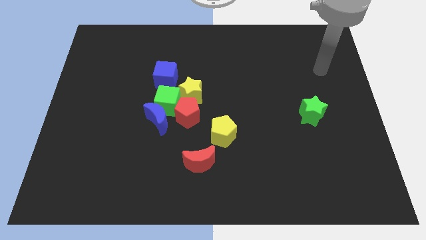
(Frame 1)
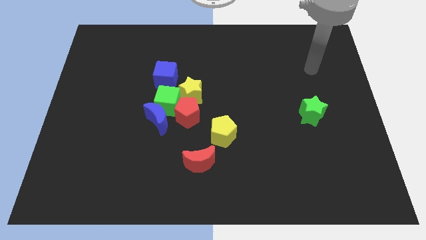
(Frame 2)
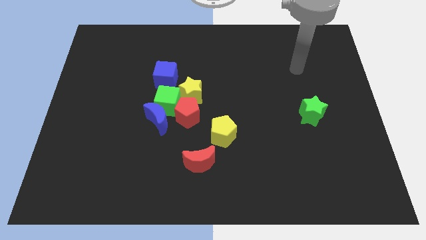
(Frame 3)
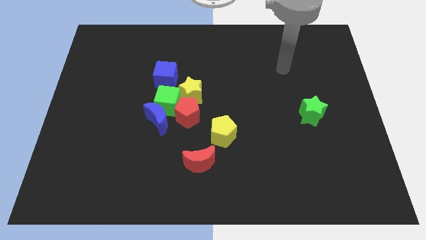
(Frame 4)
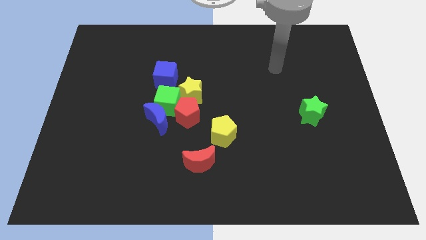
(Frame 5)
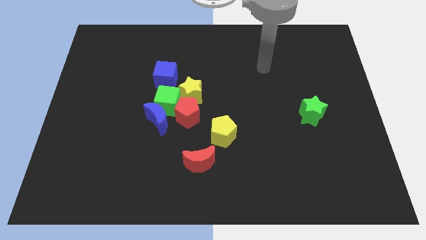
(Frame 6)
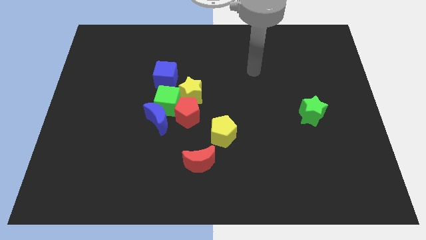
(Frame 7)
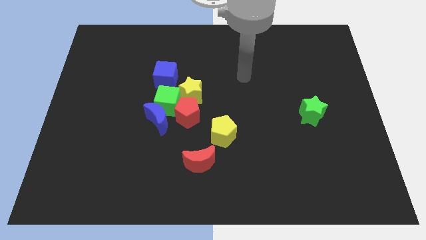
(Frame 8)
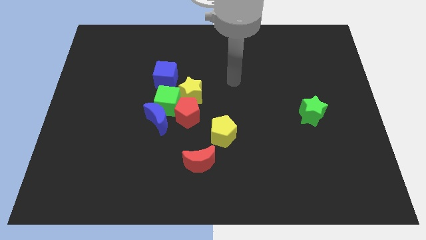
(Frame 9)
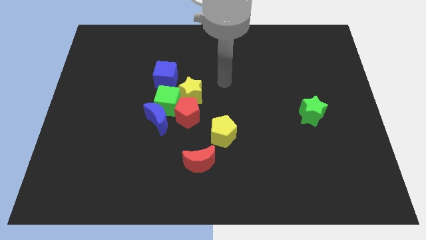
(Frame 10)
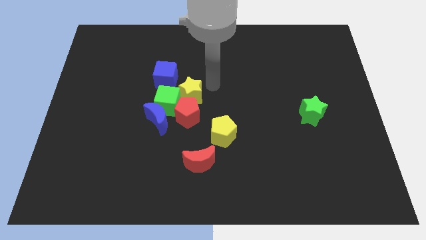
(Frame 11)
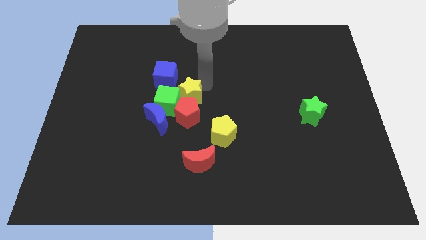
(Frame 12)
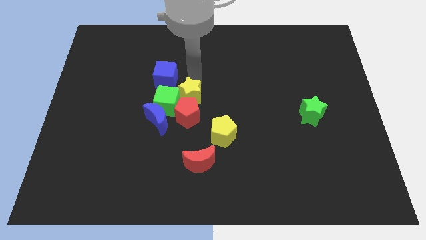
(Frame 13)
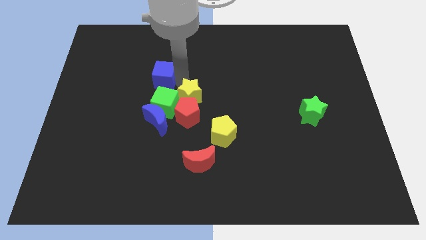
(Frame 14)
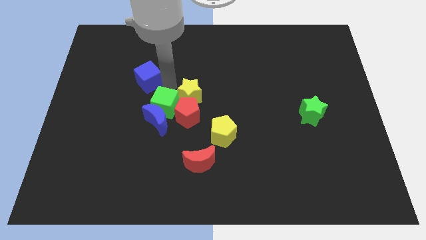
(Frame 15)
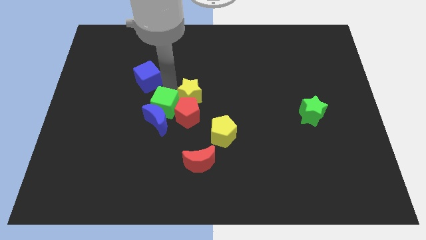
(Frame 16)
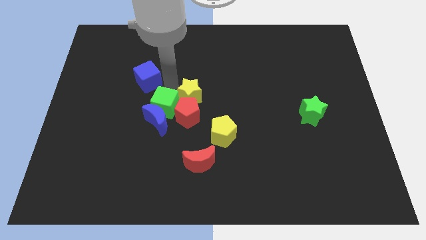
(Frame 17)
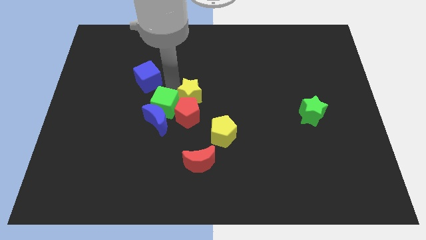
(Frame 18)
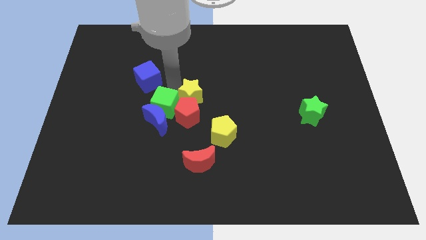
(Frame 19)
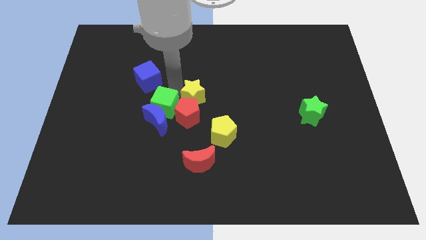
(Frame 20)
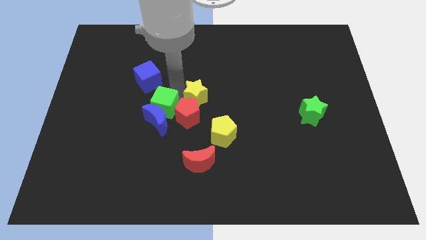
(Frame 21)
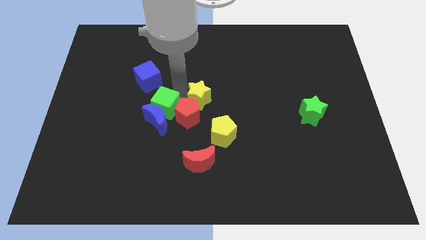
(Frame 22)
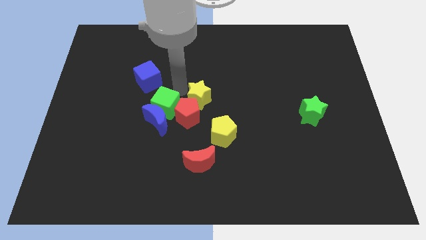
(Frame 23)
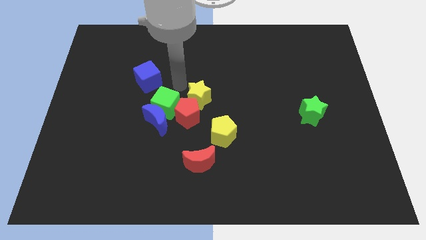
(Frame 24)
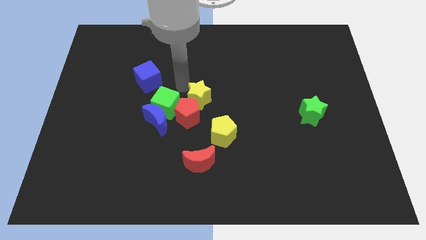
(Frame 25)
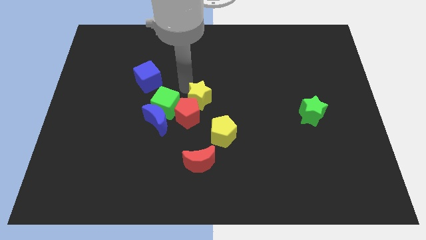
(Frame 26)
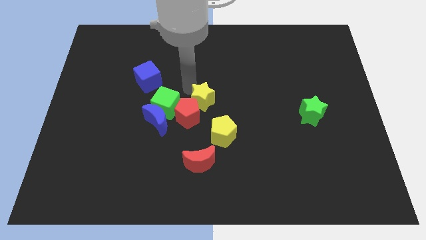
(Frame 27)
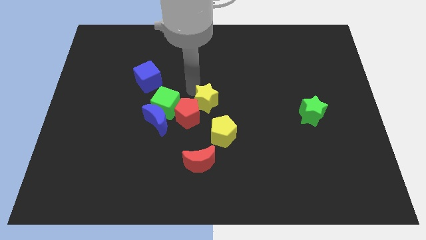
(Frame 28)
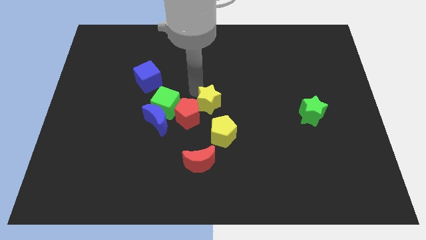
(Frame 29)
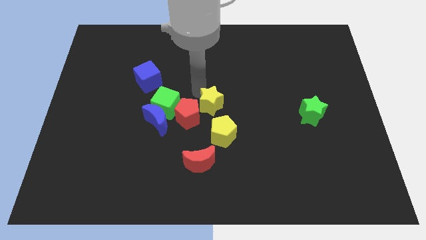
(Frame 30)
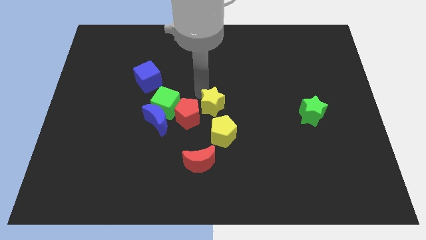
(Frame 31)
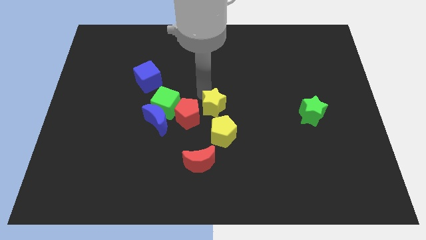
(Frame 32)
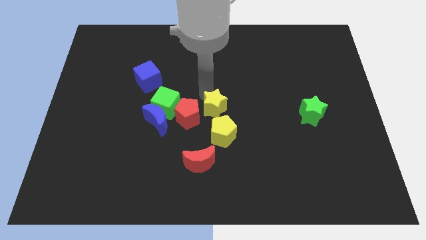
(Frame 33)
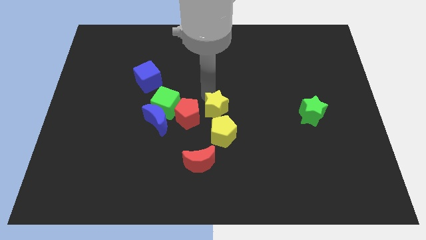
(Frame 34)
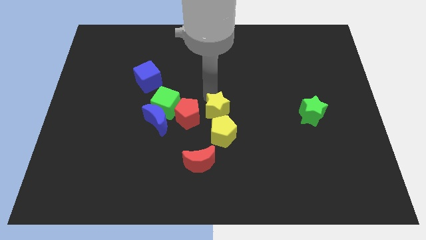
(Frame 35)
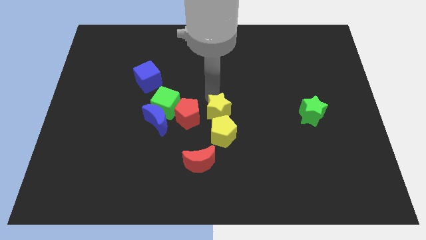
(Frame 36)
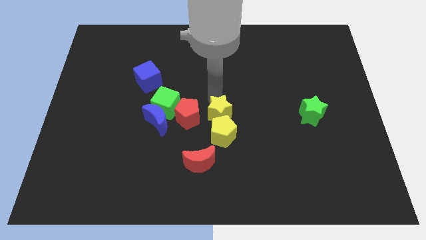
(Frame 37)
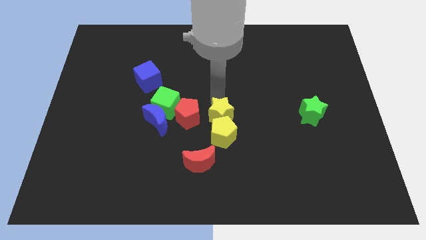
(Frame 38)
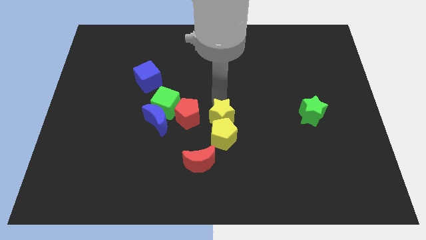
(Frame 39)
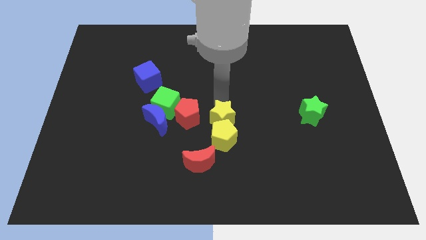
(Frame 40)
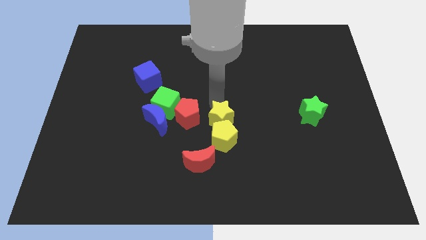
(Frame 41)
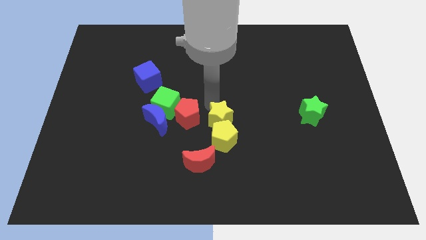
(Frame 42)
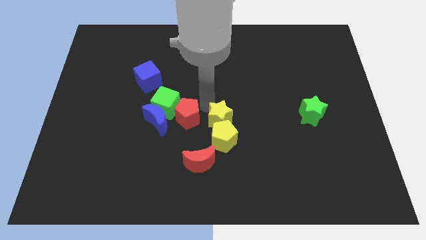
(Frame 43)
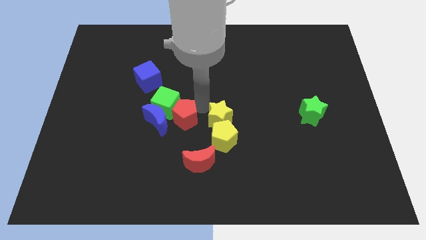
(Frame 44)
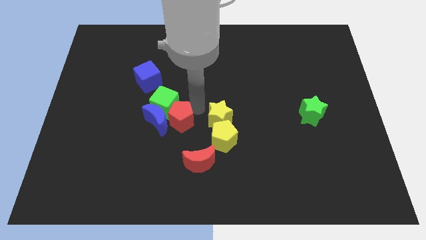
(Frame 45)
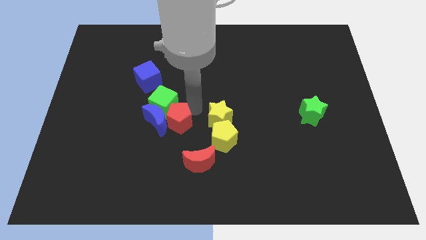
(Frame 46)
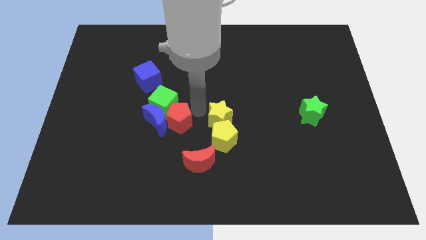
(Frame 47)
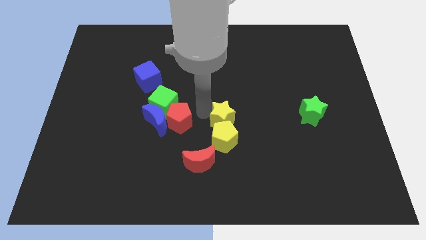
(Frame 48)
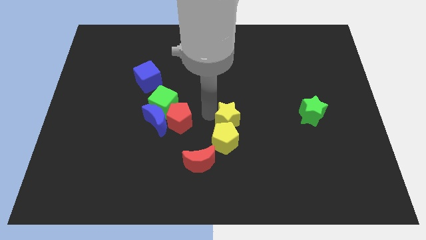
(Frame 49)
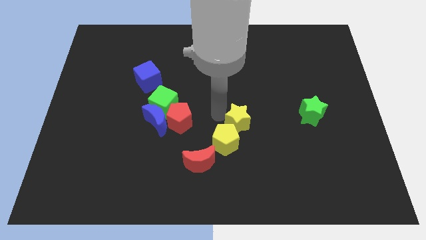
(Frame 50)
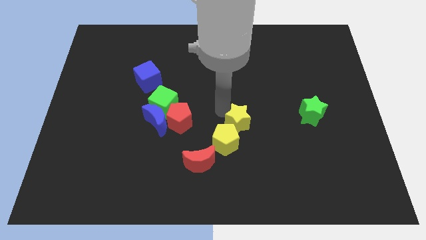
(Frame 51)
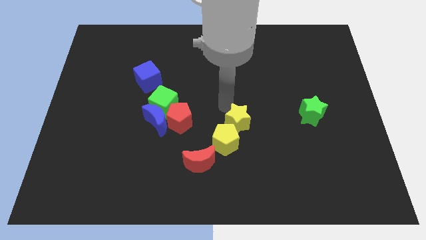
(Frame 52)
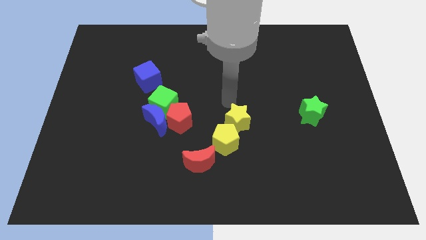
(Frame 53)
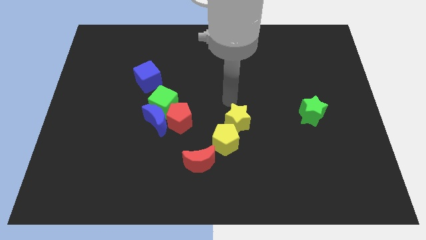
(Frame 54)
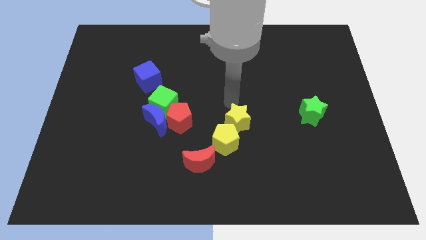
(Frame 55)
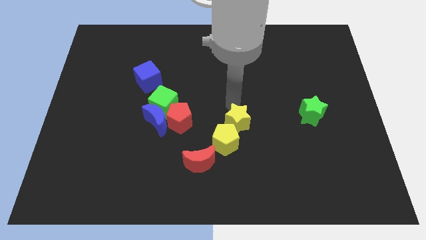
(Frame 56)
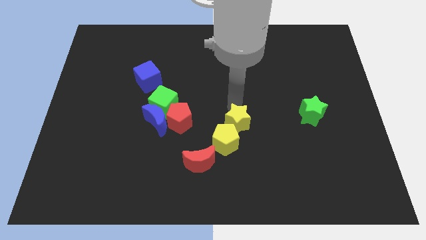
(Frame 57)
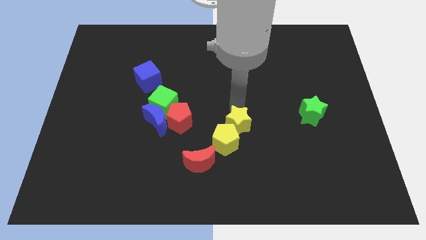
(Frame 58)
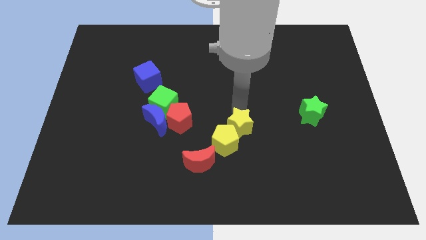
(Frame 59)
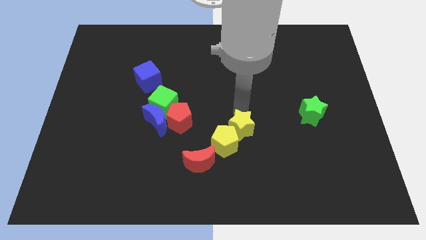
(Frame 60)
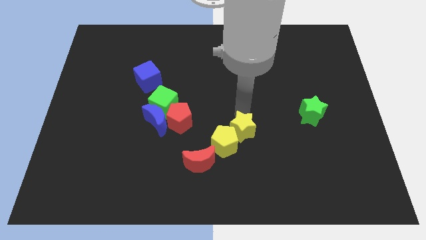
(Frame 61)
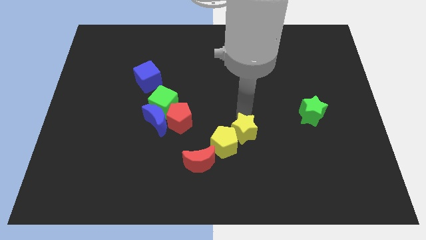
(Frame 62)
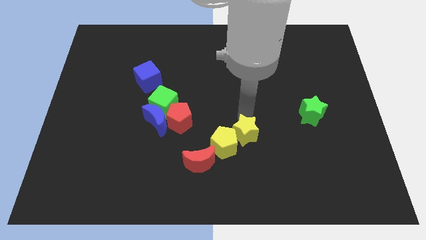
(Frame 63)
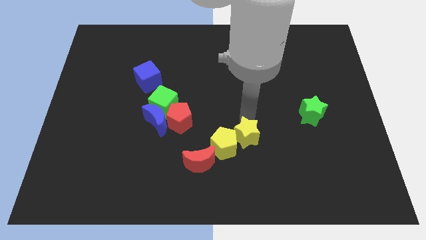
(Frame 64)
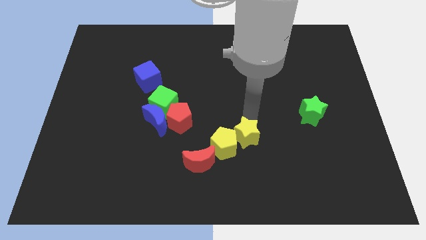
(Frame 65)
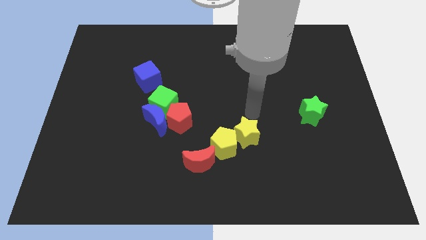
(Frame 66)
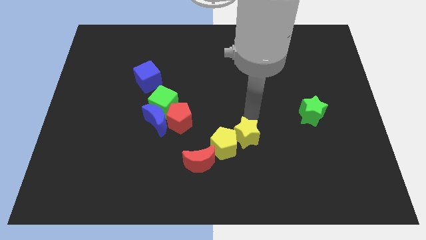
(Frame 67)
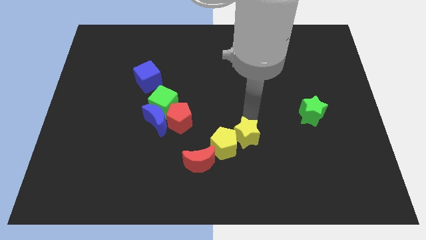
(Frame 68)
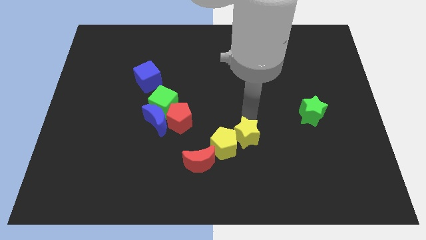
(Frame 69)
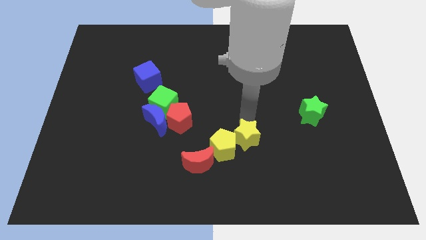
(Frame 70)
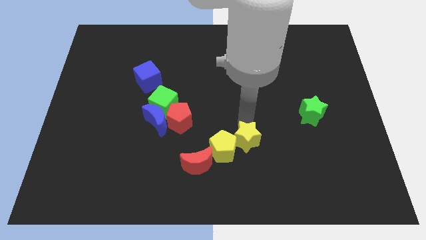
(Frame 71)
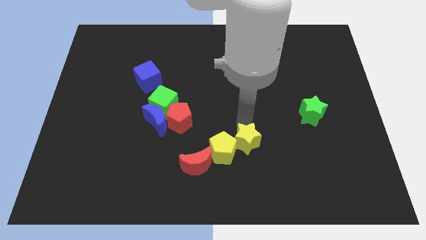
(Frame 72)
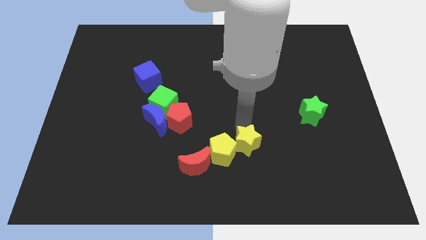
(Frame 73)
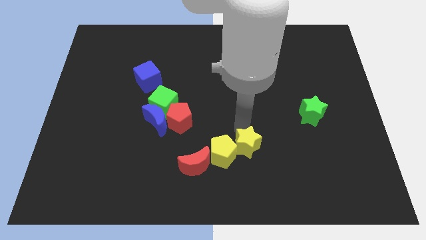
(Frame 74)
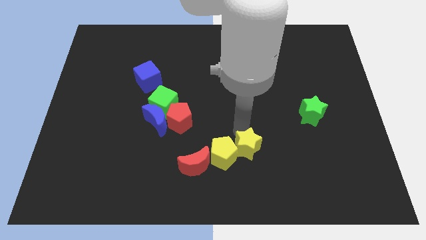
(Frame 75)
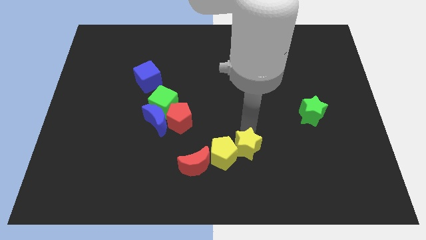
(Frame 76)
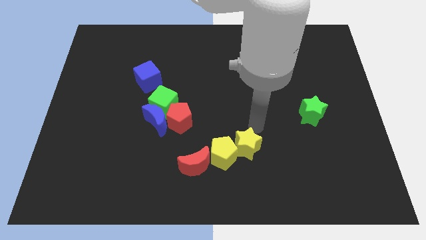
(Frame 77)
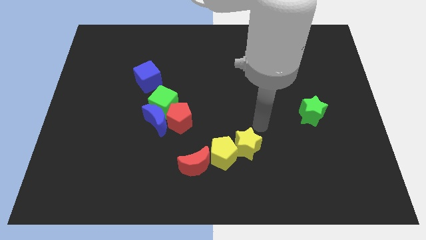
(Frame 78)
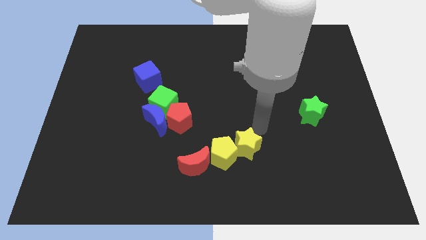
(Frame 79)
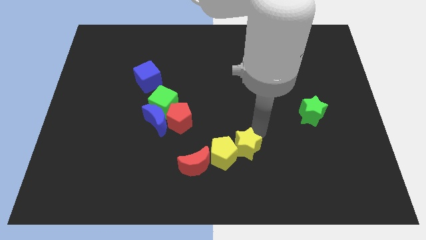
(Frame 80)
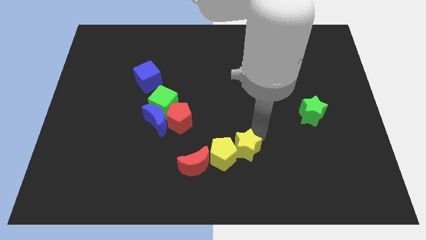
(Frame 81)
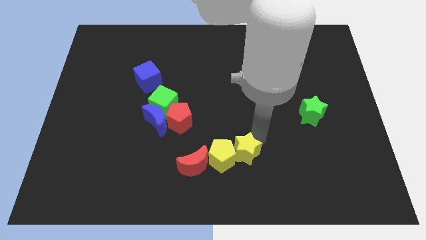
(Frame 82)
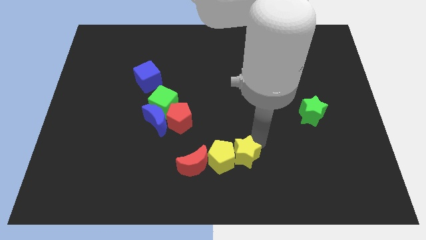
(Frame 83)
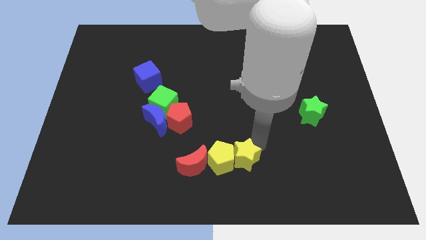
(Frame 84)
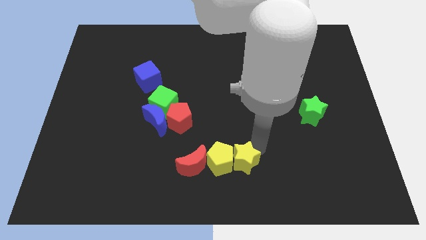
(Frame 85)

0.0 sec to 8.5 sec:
put the yellow star to the bottom
